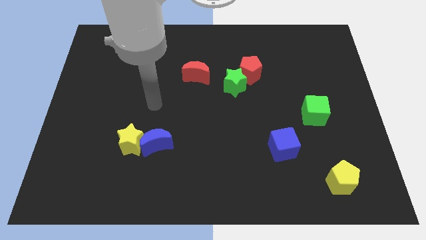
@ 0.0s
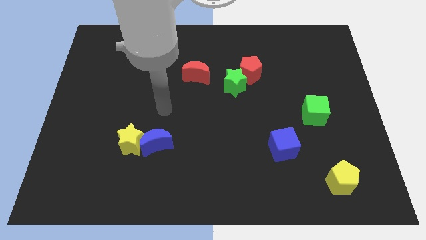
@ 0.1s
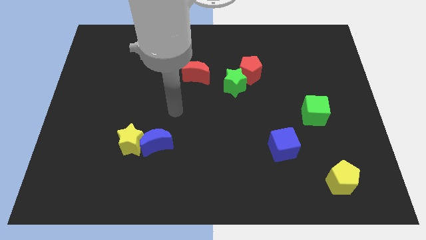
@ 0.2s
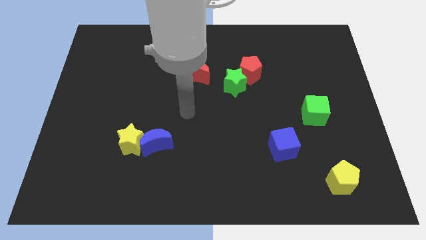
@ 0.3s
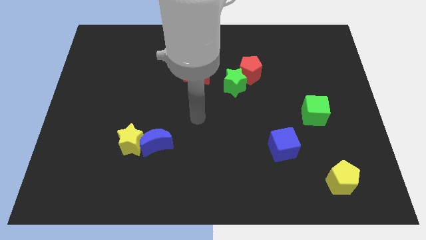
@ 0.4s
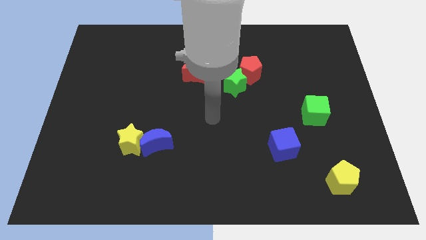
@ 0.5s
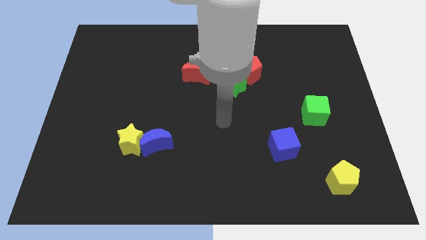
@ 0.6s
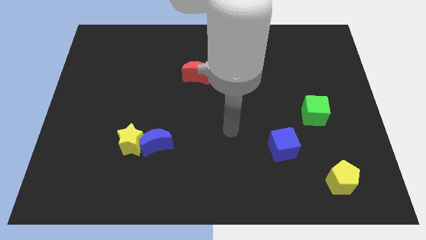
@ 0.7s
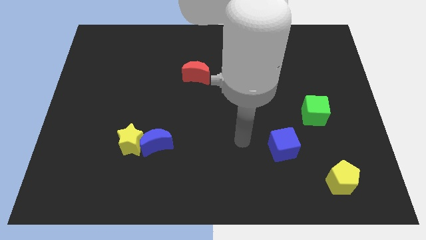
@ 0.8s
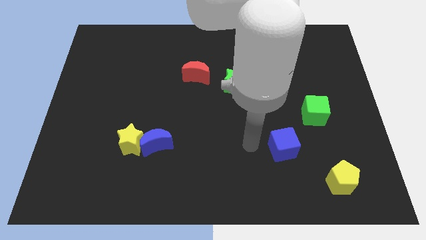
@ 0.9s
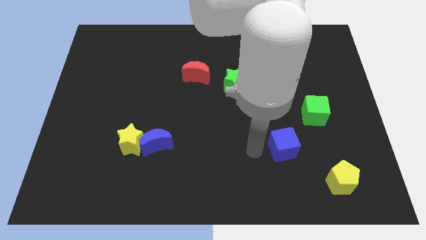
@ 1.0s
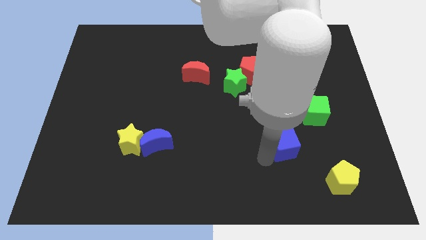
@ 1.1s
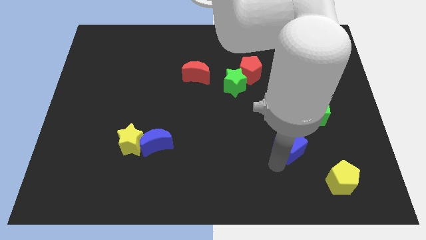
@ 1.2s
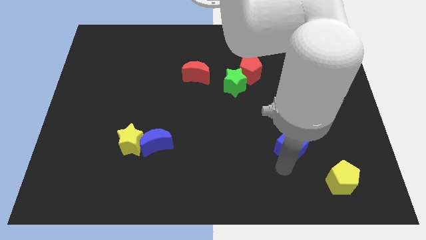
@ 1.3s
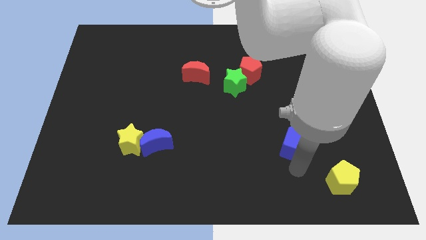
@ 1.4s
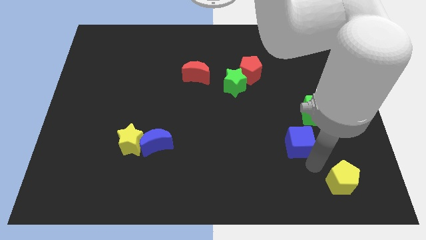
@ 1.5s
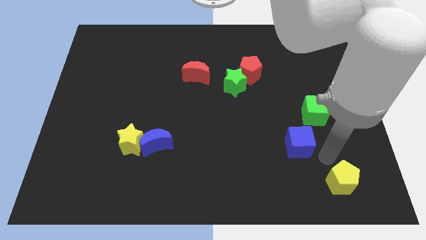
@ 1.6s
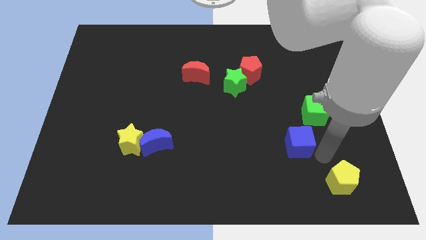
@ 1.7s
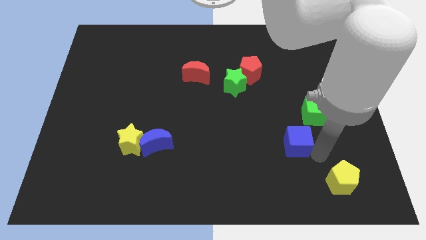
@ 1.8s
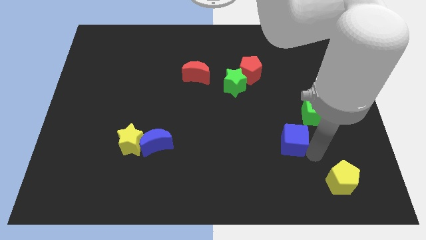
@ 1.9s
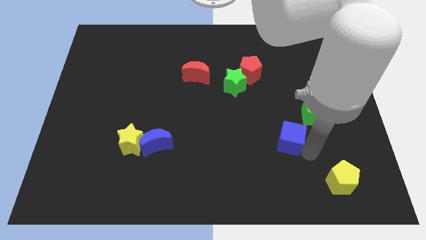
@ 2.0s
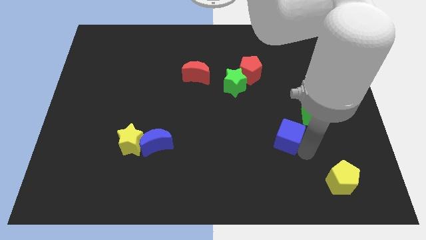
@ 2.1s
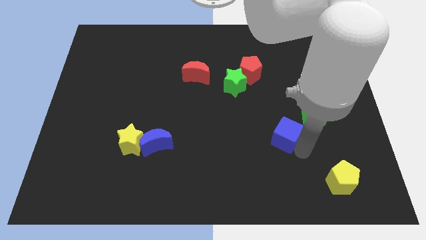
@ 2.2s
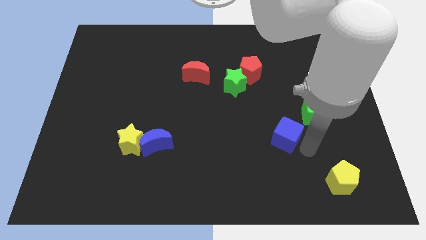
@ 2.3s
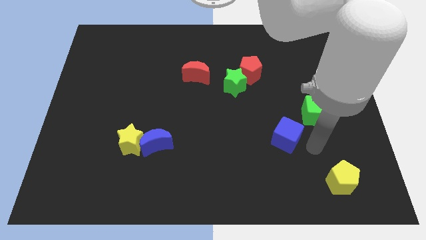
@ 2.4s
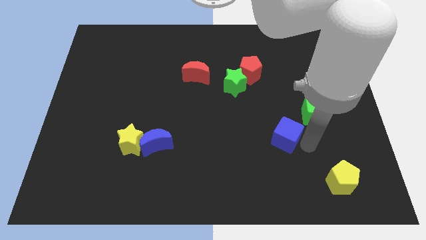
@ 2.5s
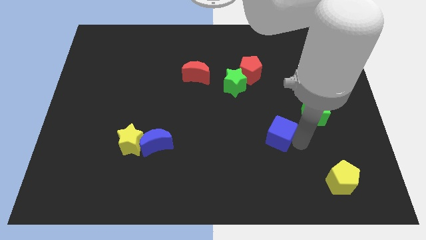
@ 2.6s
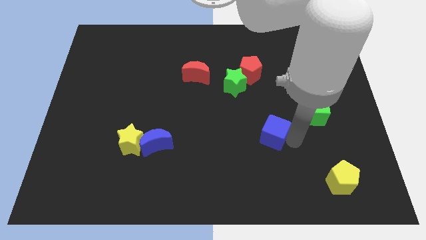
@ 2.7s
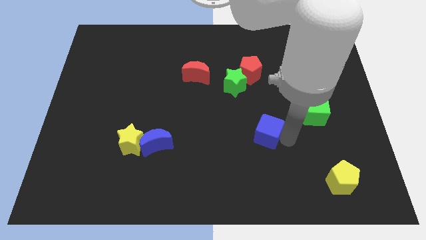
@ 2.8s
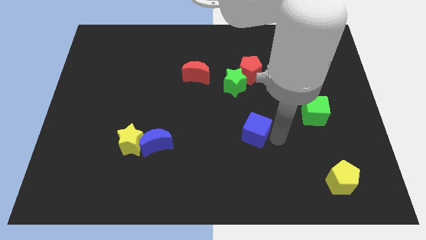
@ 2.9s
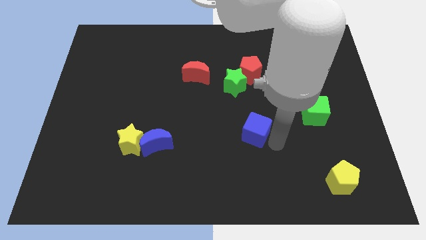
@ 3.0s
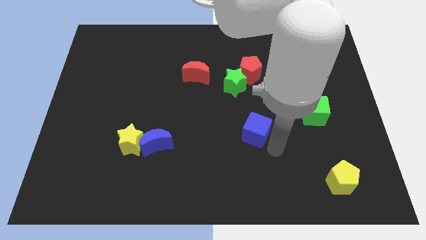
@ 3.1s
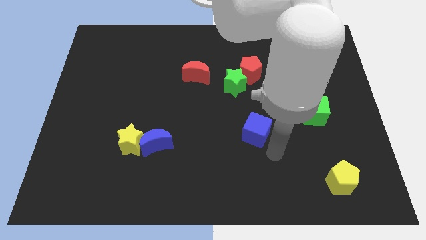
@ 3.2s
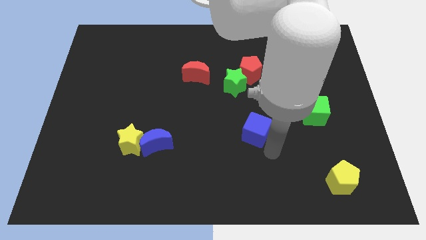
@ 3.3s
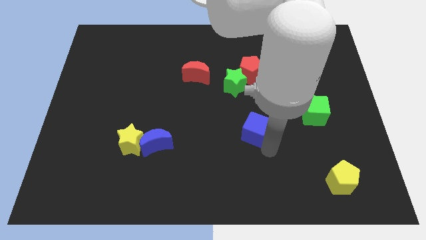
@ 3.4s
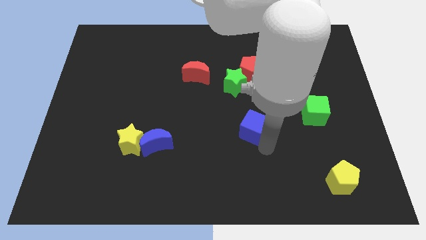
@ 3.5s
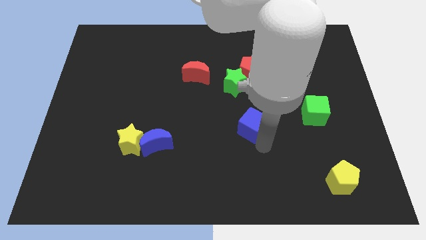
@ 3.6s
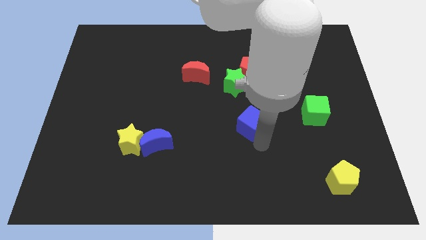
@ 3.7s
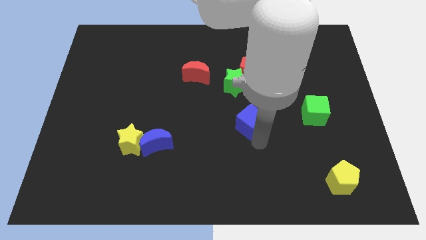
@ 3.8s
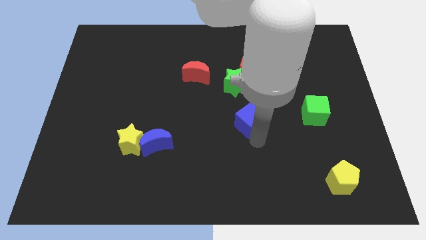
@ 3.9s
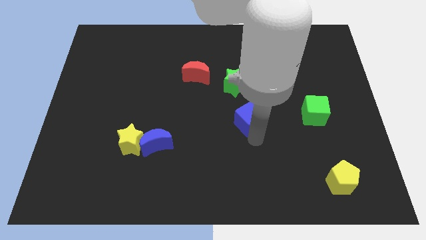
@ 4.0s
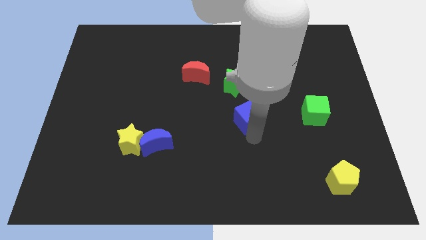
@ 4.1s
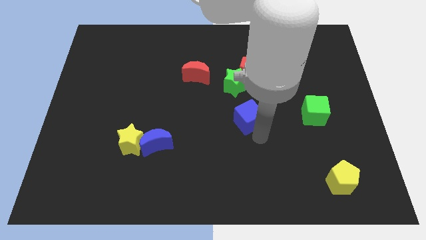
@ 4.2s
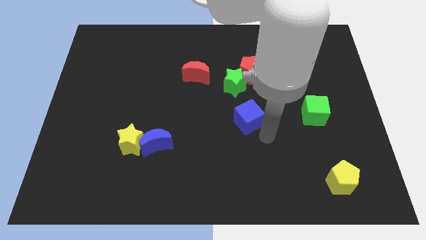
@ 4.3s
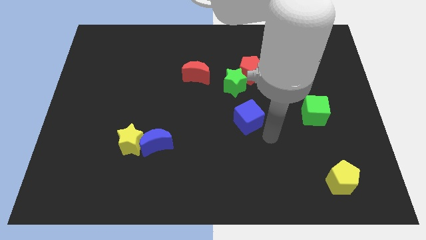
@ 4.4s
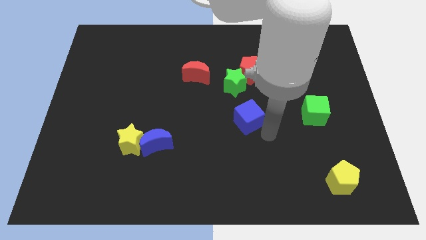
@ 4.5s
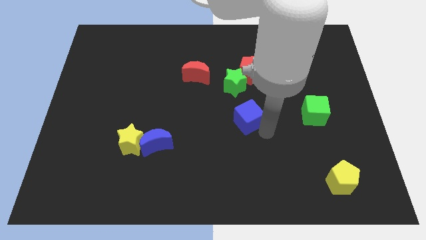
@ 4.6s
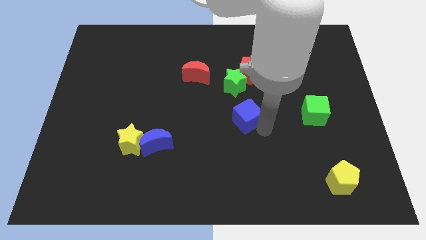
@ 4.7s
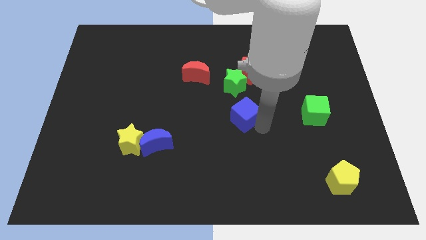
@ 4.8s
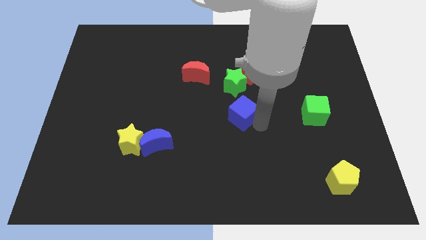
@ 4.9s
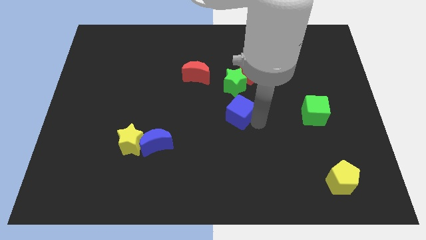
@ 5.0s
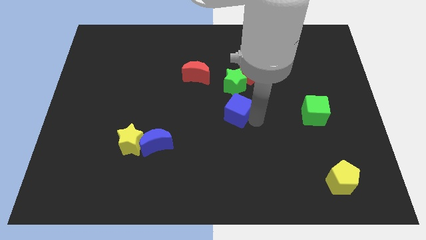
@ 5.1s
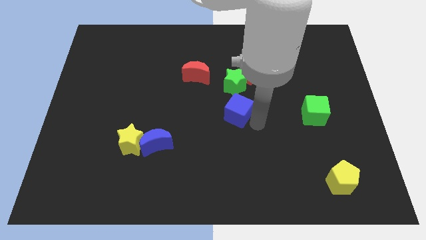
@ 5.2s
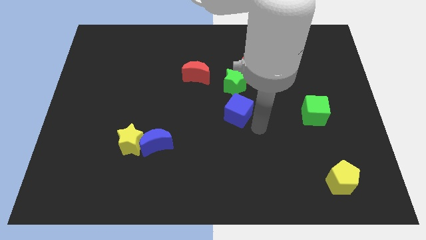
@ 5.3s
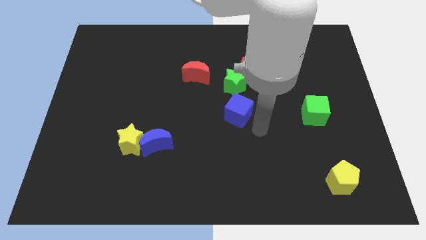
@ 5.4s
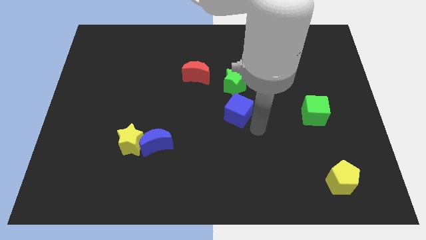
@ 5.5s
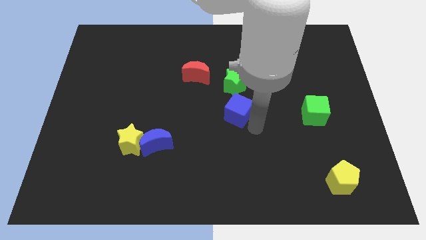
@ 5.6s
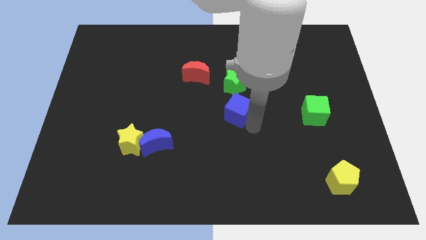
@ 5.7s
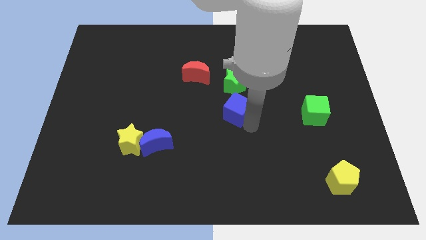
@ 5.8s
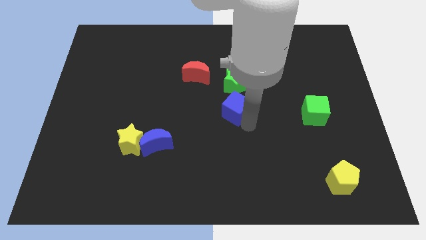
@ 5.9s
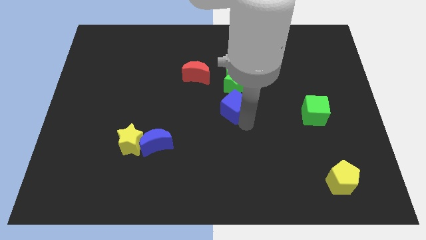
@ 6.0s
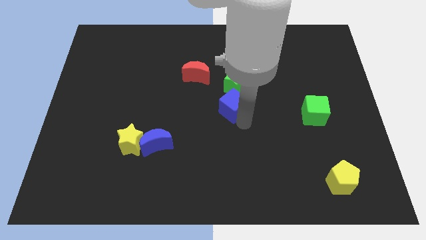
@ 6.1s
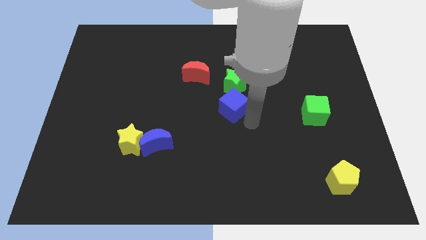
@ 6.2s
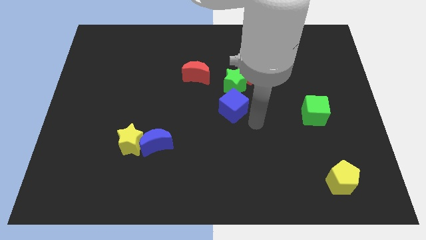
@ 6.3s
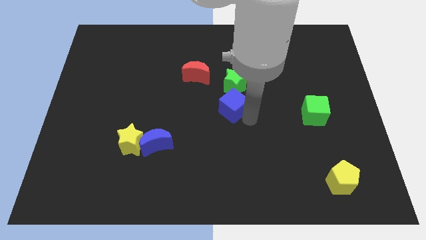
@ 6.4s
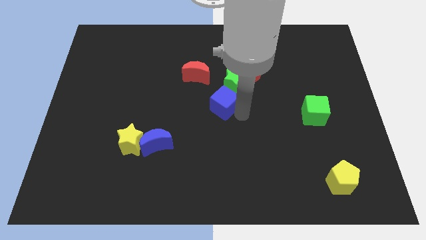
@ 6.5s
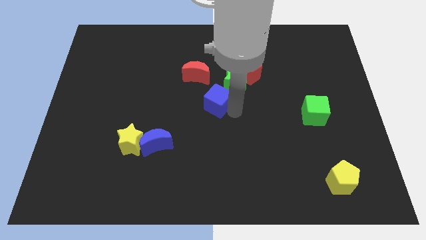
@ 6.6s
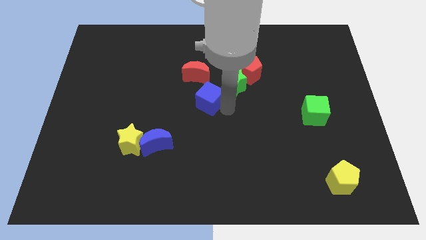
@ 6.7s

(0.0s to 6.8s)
move the blue cube up and to the left diagonally

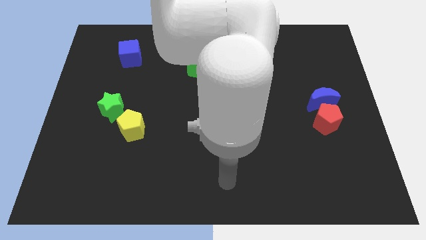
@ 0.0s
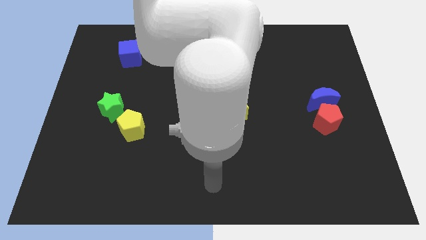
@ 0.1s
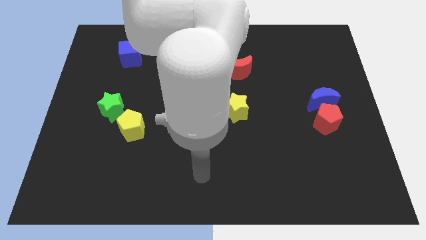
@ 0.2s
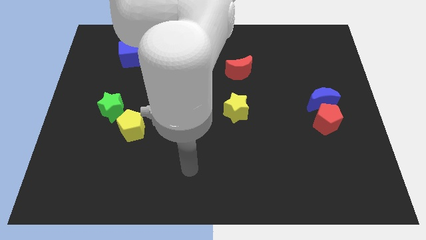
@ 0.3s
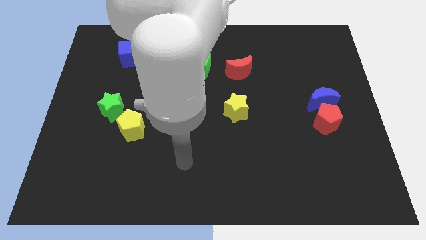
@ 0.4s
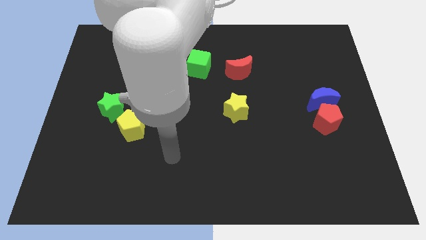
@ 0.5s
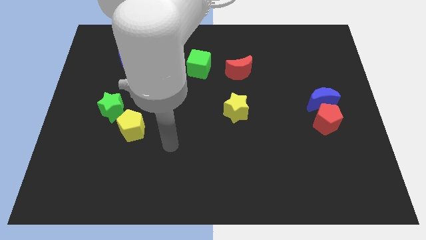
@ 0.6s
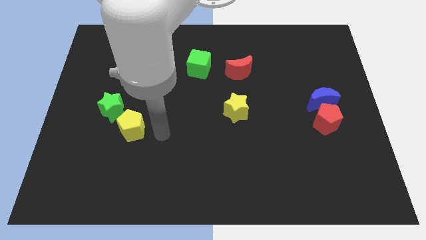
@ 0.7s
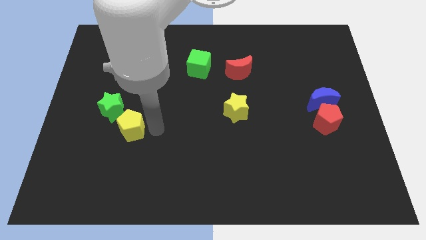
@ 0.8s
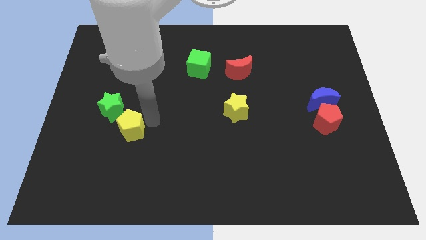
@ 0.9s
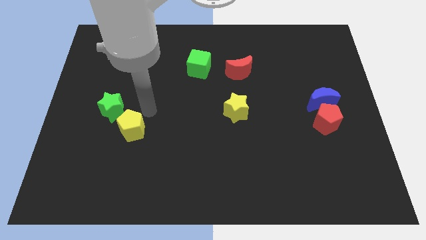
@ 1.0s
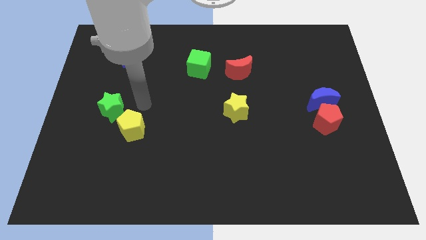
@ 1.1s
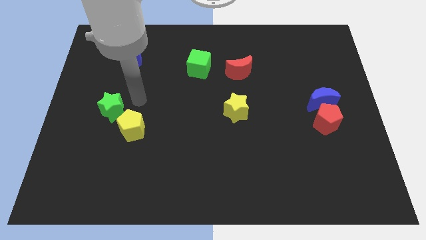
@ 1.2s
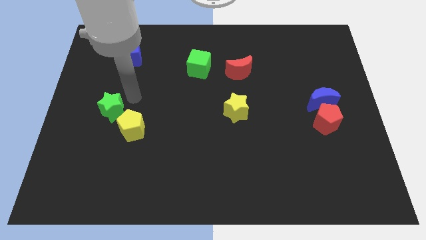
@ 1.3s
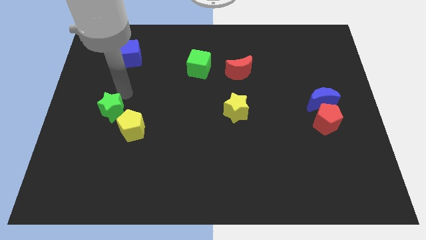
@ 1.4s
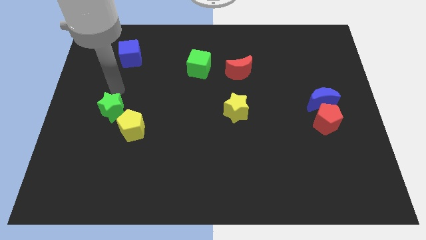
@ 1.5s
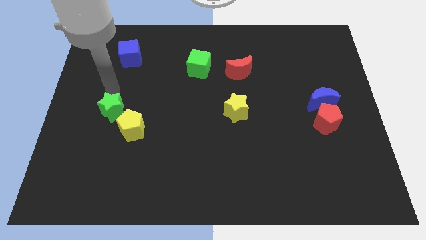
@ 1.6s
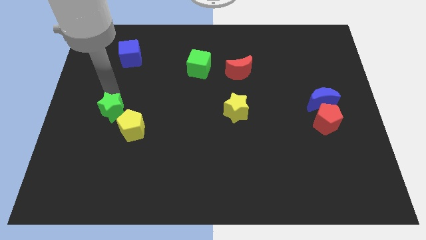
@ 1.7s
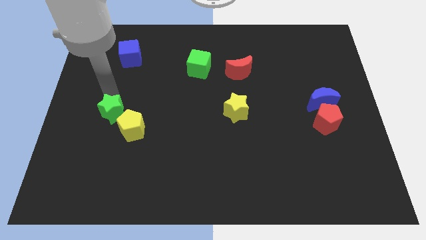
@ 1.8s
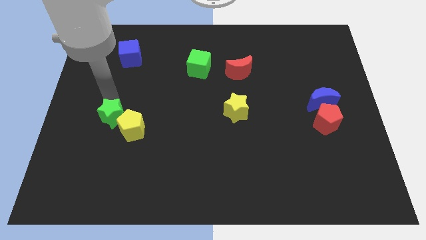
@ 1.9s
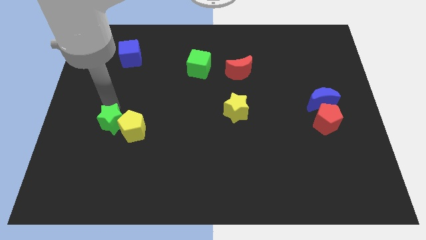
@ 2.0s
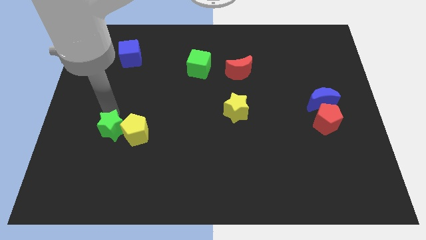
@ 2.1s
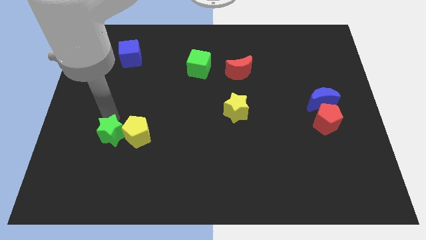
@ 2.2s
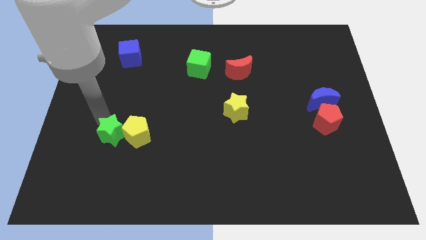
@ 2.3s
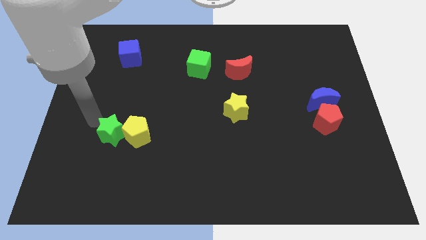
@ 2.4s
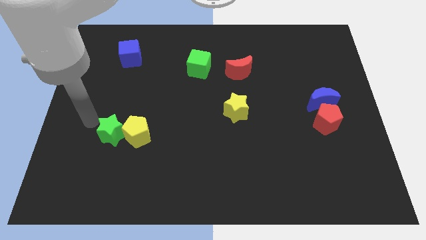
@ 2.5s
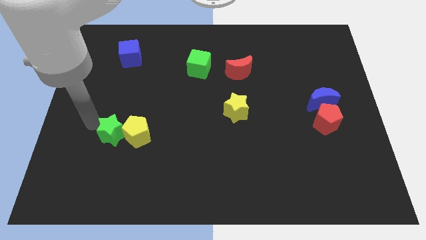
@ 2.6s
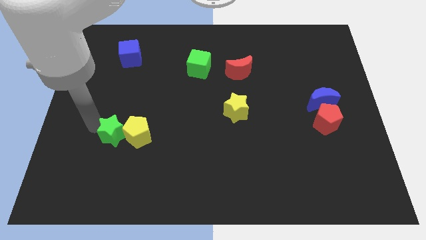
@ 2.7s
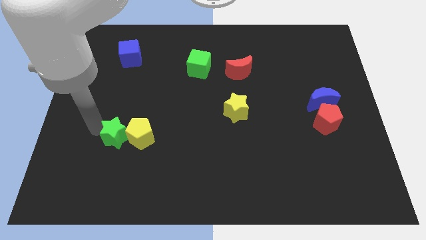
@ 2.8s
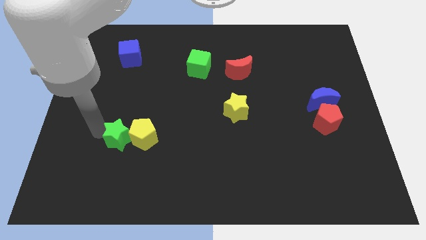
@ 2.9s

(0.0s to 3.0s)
move the green star downwards and then right a bit
